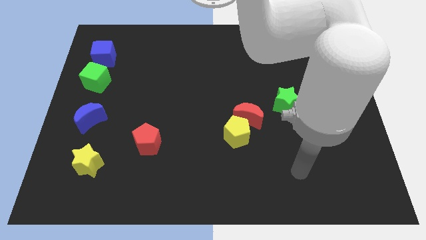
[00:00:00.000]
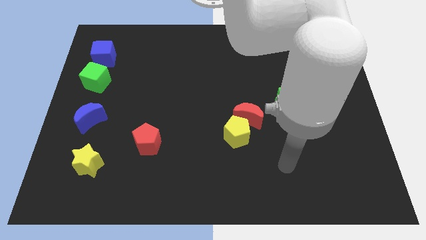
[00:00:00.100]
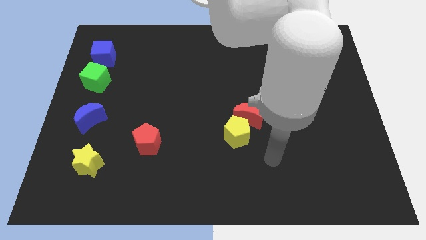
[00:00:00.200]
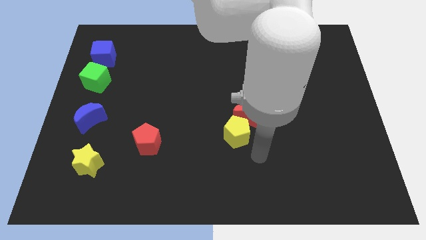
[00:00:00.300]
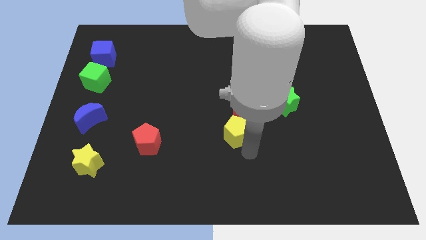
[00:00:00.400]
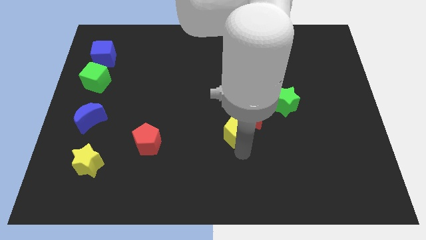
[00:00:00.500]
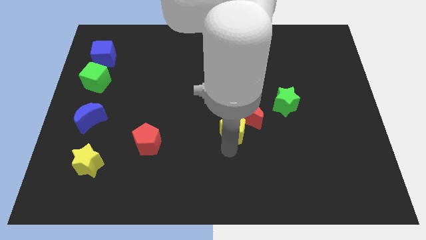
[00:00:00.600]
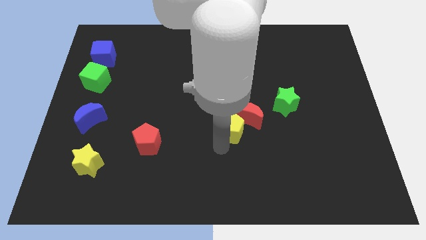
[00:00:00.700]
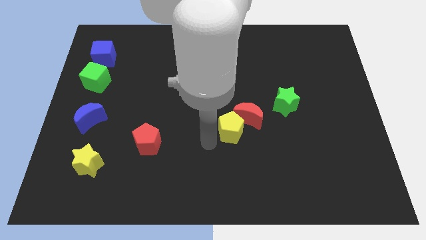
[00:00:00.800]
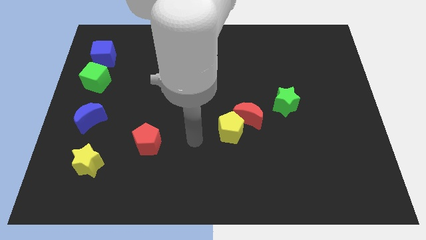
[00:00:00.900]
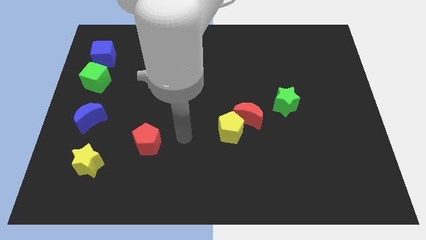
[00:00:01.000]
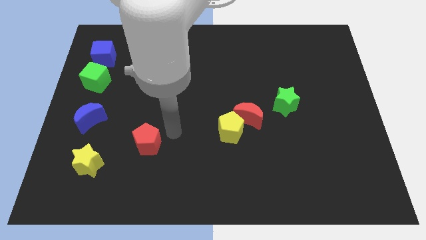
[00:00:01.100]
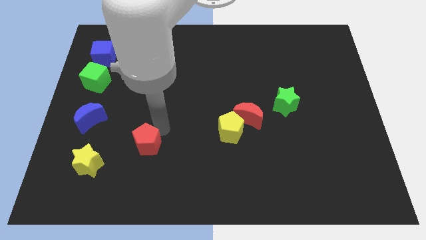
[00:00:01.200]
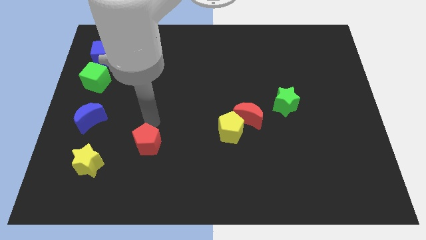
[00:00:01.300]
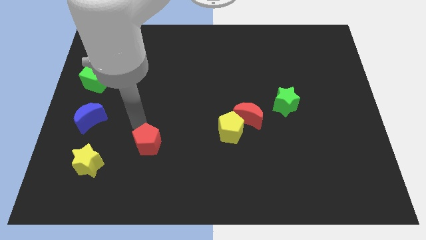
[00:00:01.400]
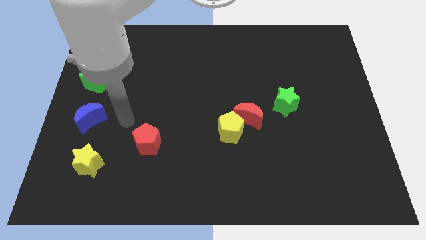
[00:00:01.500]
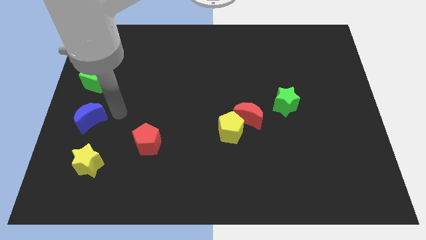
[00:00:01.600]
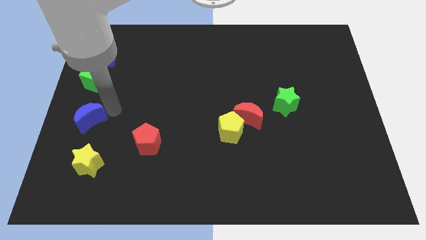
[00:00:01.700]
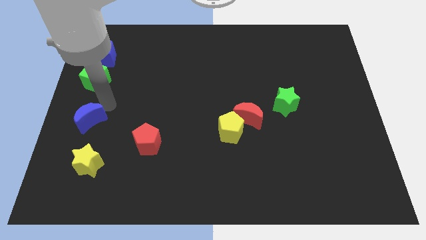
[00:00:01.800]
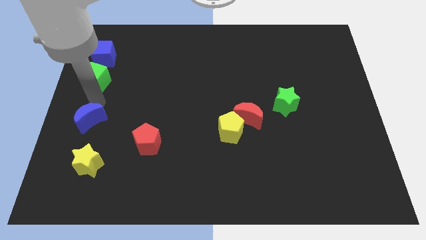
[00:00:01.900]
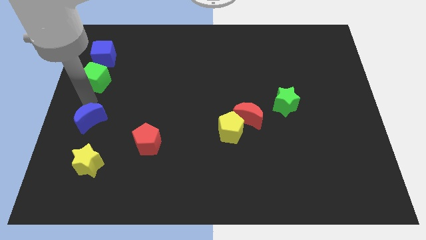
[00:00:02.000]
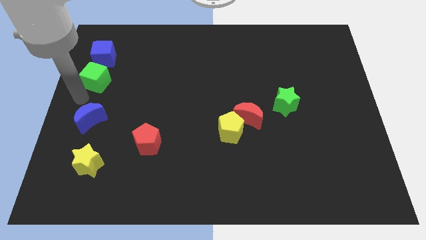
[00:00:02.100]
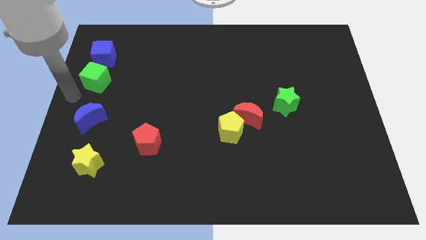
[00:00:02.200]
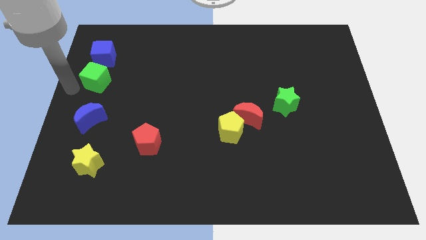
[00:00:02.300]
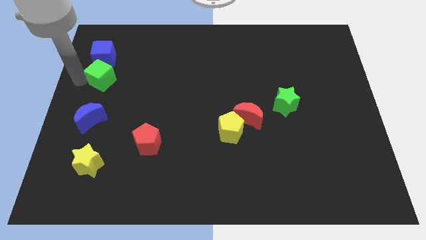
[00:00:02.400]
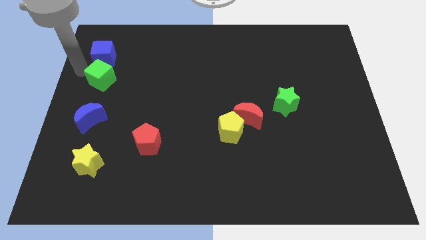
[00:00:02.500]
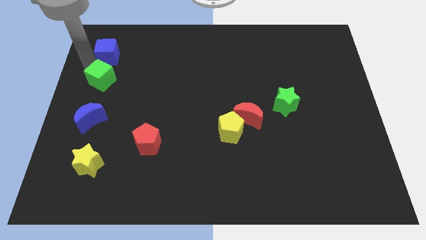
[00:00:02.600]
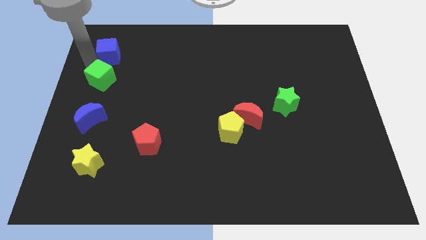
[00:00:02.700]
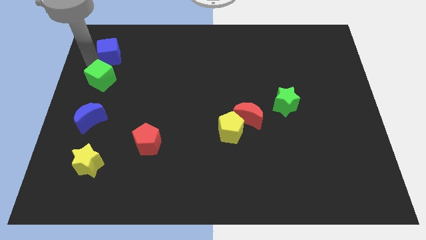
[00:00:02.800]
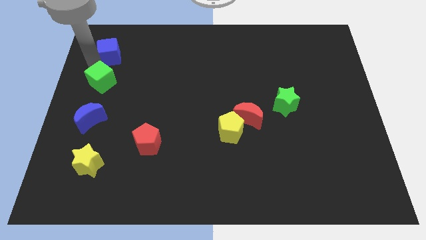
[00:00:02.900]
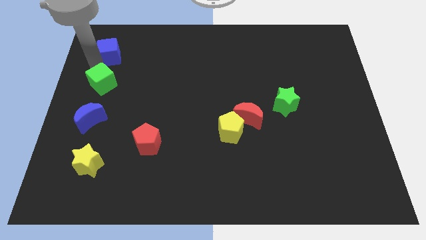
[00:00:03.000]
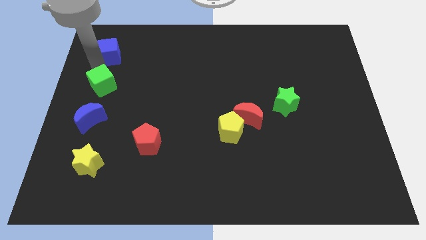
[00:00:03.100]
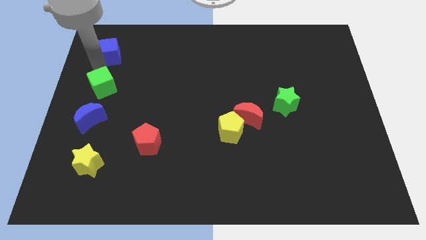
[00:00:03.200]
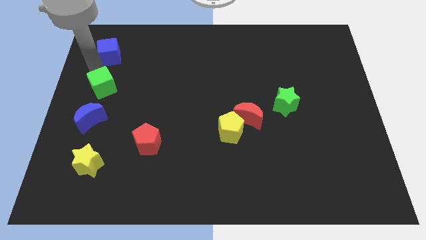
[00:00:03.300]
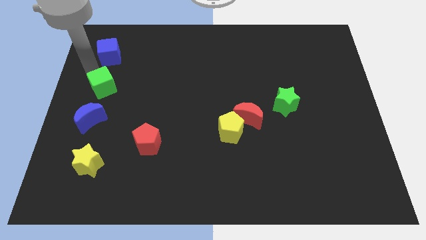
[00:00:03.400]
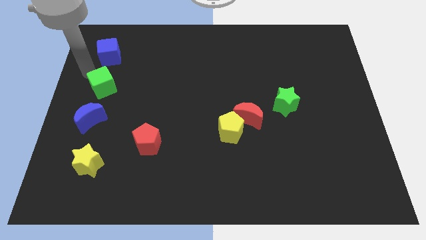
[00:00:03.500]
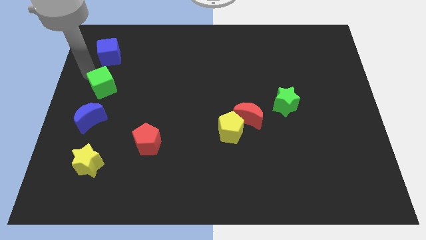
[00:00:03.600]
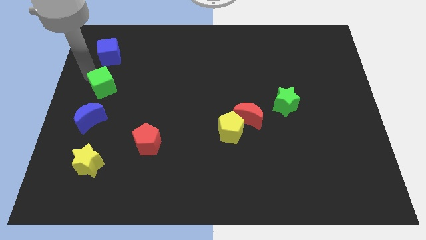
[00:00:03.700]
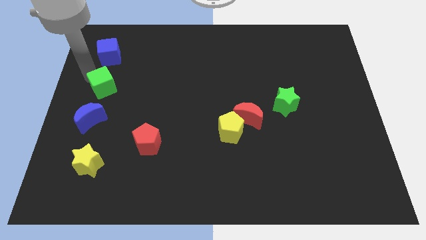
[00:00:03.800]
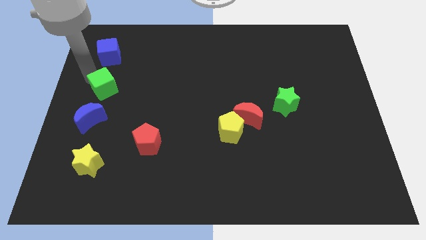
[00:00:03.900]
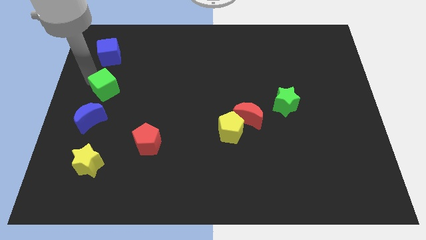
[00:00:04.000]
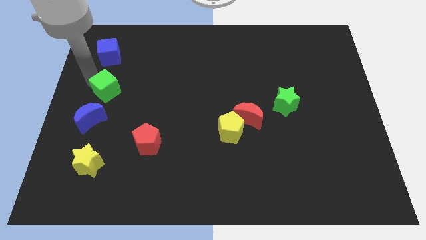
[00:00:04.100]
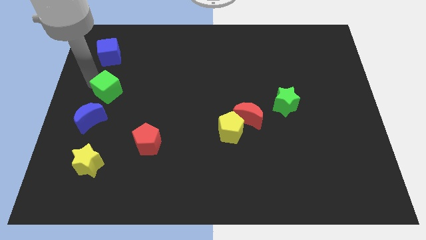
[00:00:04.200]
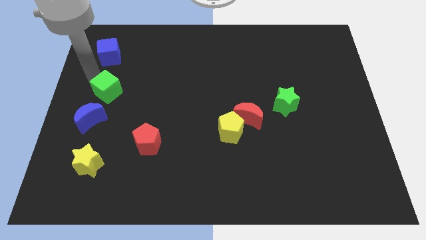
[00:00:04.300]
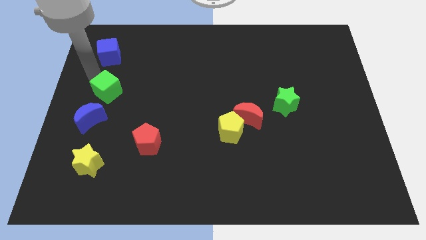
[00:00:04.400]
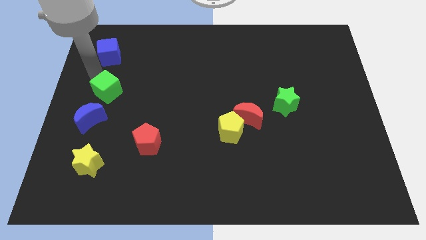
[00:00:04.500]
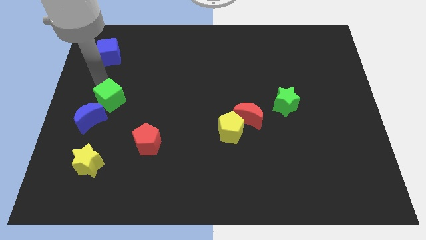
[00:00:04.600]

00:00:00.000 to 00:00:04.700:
push the green cube downwards and then to the right somewhat

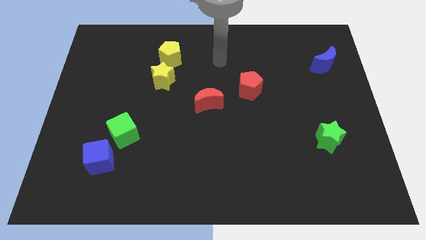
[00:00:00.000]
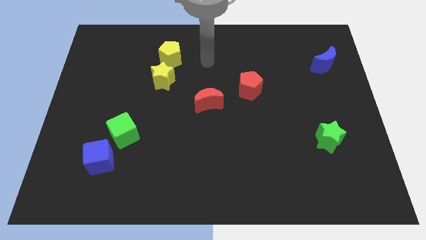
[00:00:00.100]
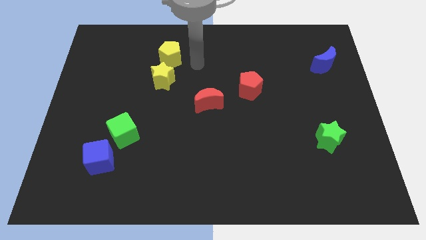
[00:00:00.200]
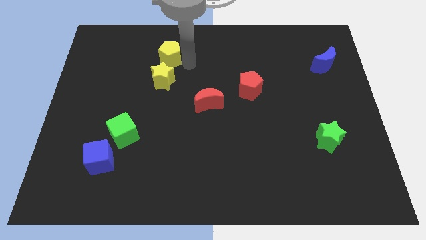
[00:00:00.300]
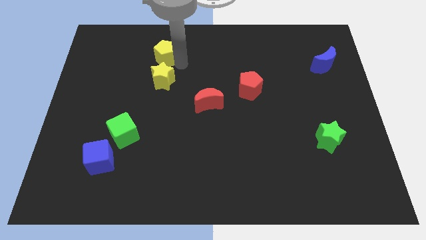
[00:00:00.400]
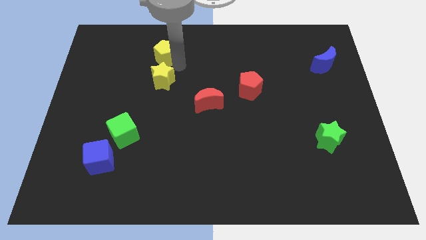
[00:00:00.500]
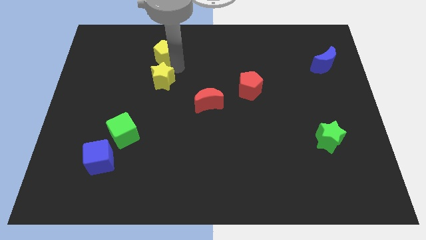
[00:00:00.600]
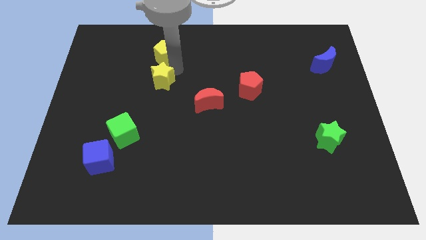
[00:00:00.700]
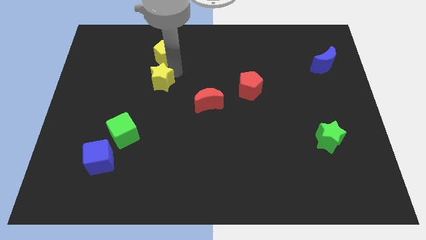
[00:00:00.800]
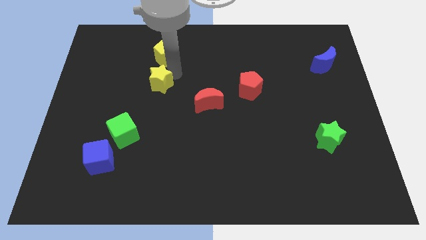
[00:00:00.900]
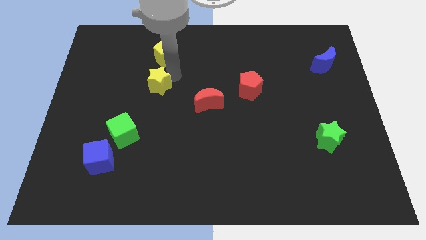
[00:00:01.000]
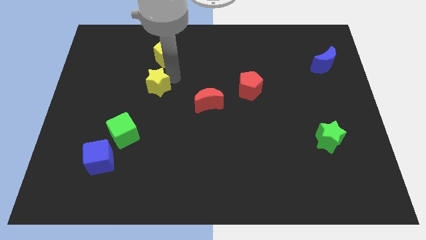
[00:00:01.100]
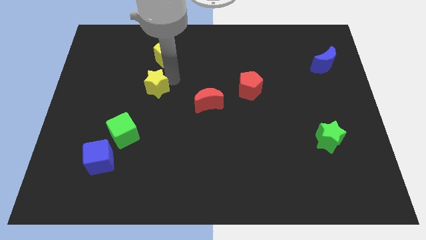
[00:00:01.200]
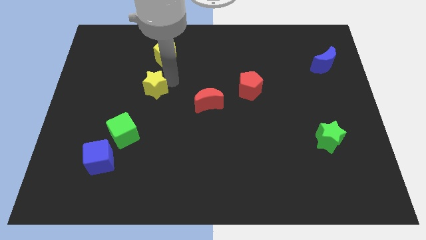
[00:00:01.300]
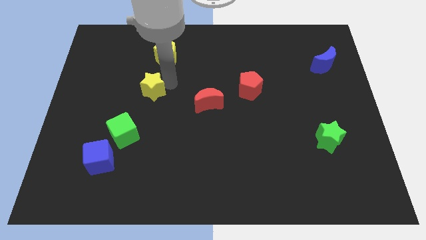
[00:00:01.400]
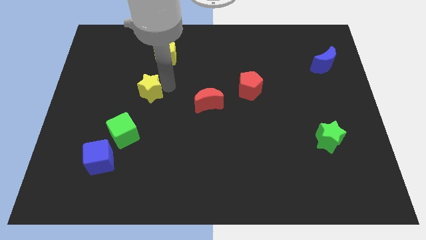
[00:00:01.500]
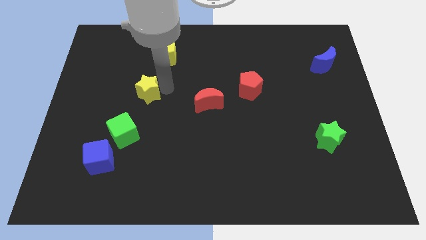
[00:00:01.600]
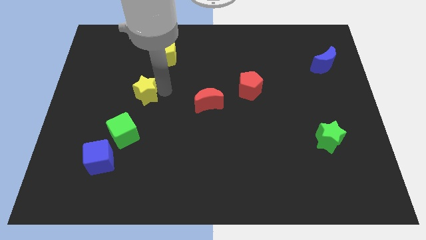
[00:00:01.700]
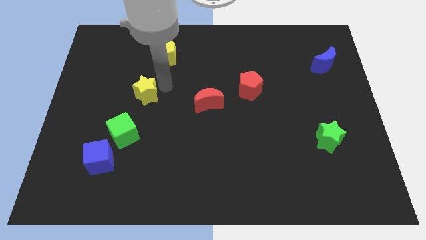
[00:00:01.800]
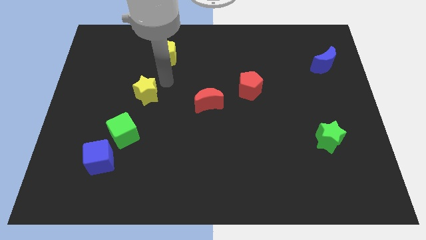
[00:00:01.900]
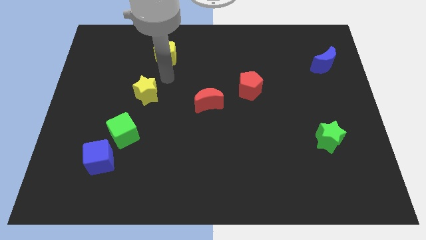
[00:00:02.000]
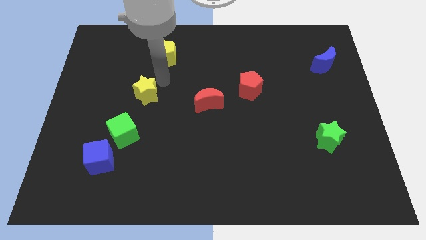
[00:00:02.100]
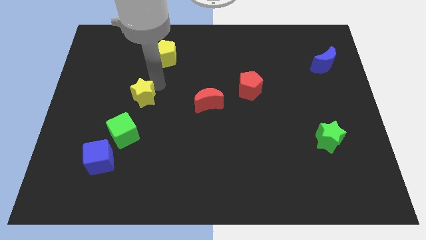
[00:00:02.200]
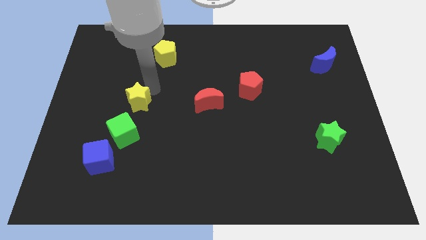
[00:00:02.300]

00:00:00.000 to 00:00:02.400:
slightly push the yellow star down and then to the left

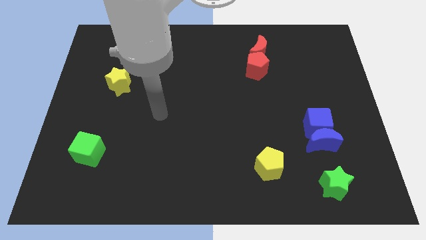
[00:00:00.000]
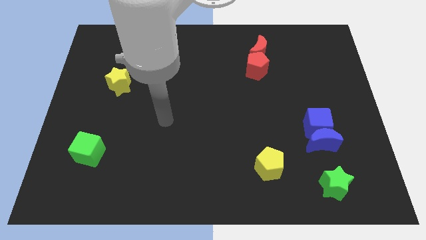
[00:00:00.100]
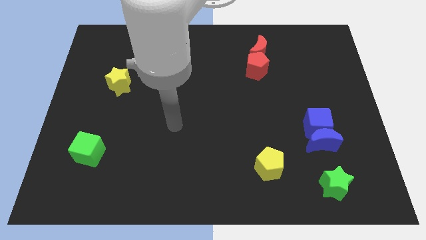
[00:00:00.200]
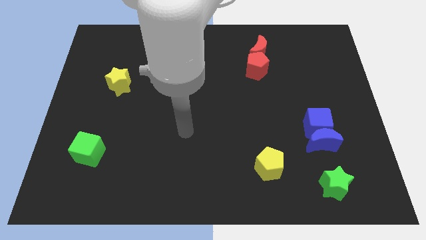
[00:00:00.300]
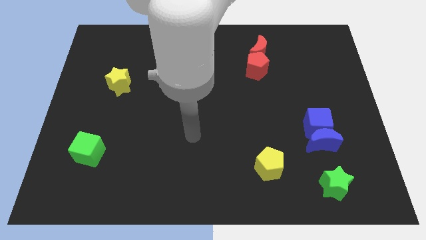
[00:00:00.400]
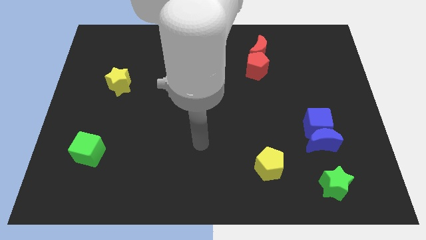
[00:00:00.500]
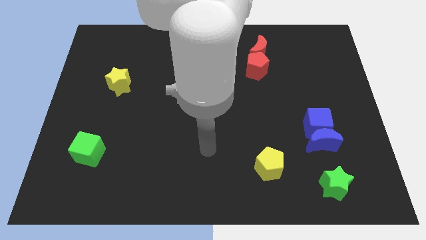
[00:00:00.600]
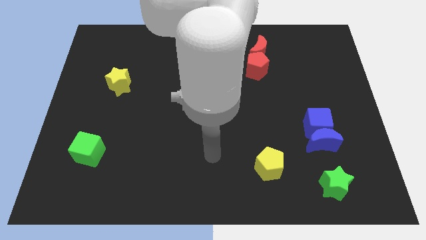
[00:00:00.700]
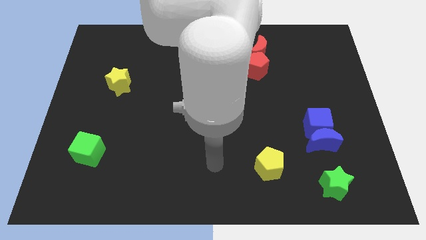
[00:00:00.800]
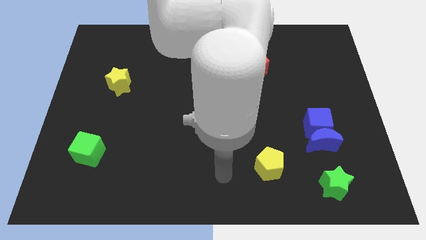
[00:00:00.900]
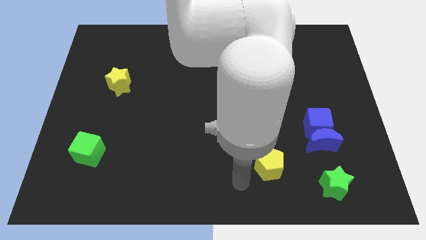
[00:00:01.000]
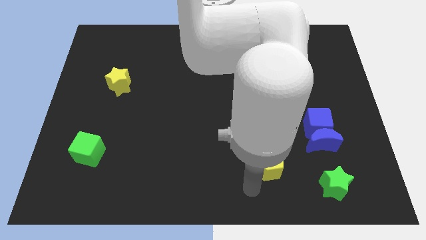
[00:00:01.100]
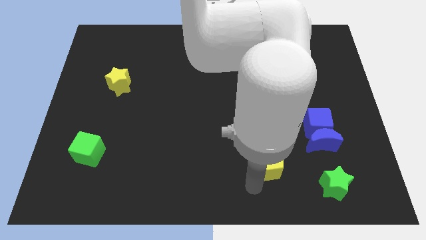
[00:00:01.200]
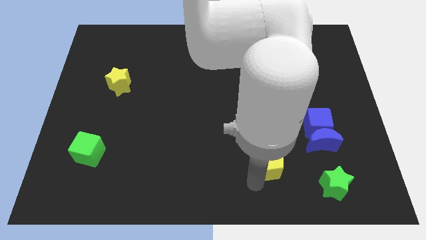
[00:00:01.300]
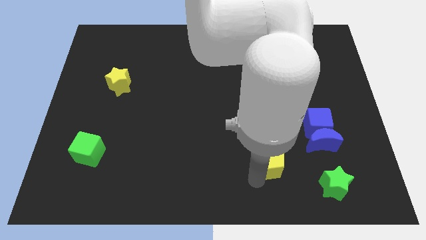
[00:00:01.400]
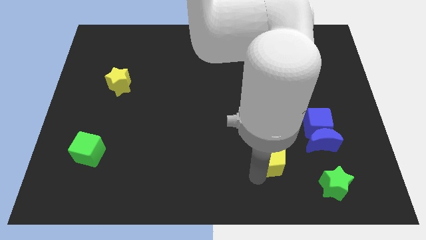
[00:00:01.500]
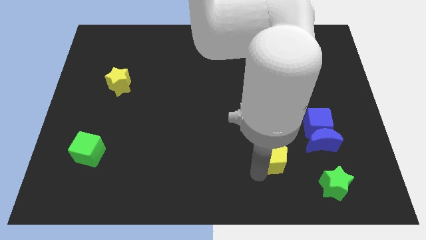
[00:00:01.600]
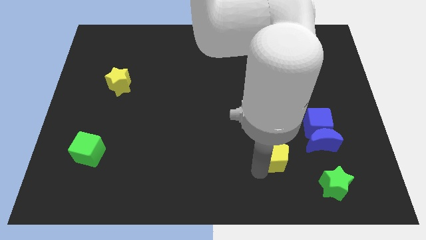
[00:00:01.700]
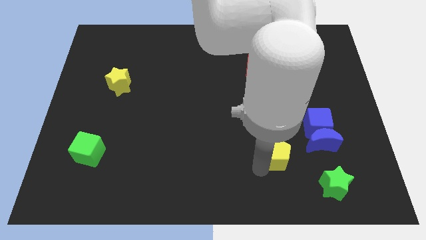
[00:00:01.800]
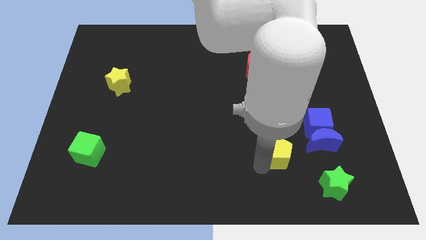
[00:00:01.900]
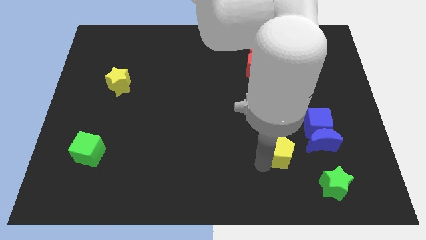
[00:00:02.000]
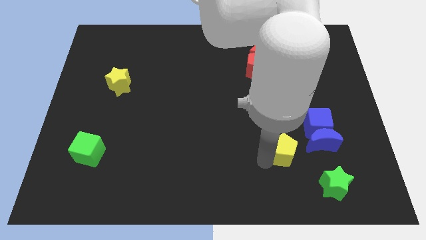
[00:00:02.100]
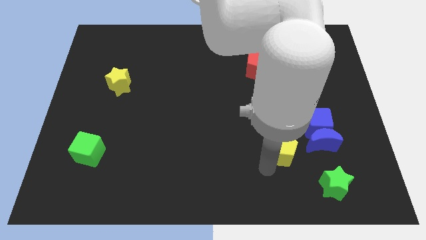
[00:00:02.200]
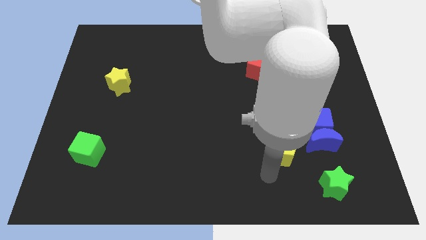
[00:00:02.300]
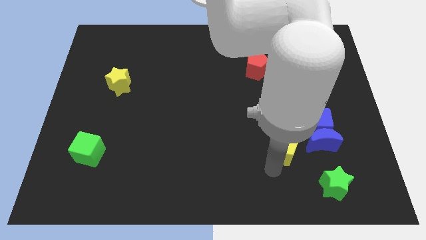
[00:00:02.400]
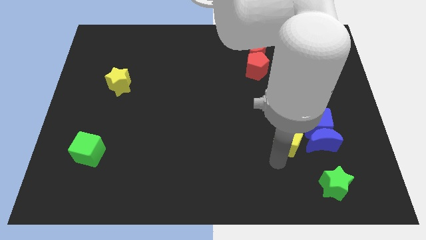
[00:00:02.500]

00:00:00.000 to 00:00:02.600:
slightly slide the yellow pentagon upwards and right
